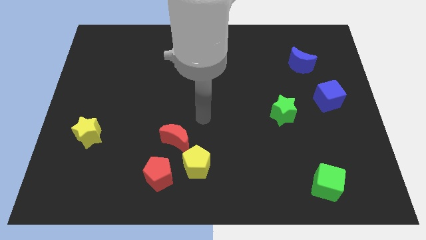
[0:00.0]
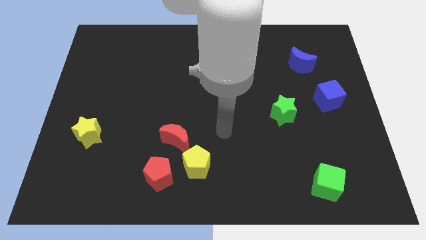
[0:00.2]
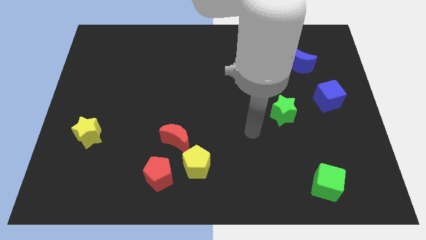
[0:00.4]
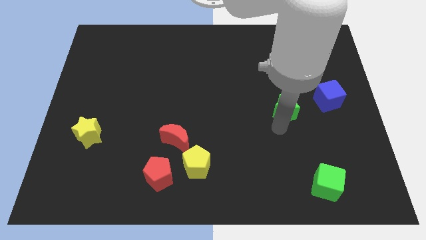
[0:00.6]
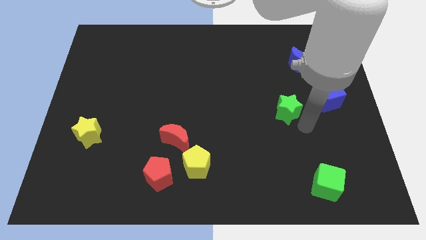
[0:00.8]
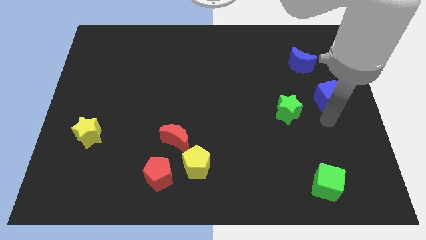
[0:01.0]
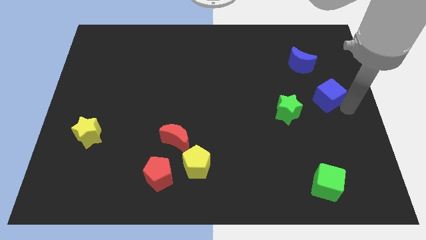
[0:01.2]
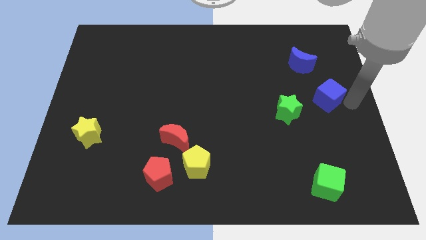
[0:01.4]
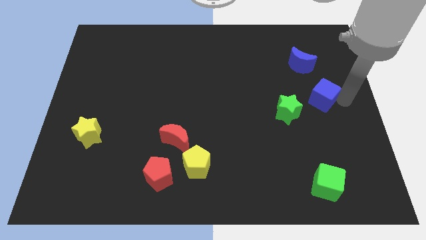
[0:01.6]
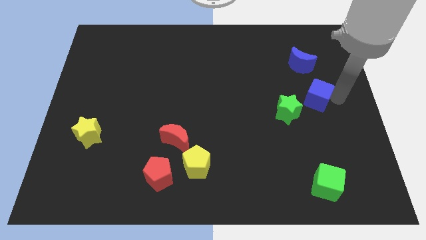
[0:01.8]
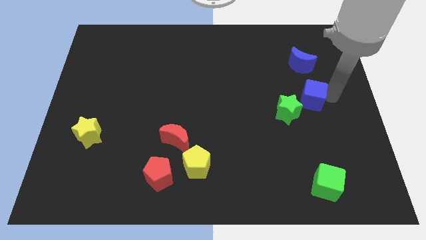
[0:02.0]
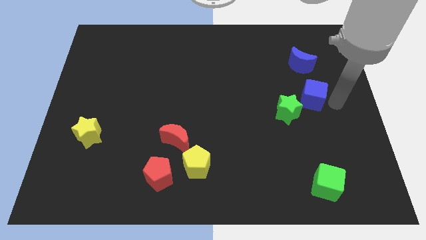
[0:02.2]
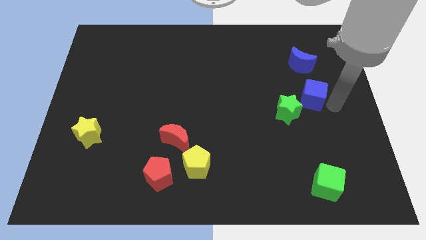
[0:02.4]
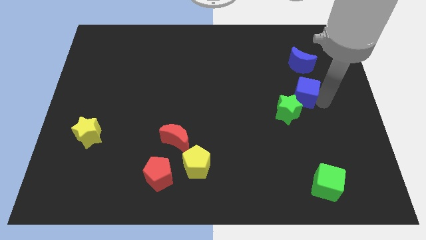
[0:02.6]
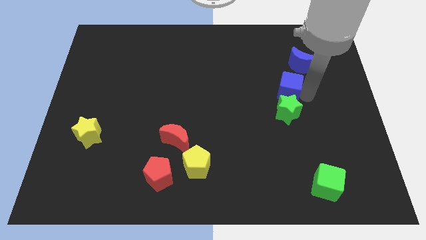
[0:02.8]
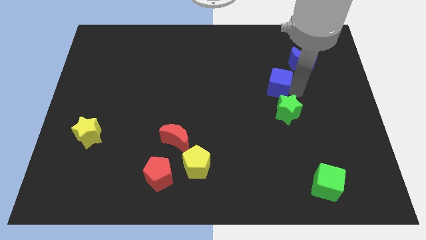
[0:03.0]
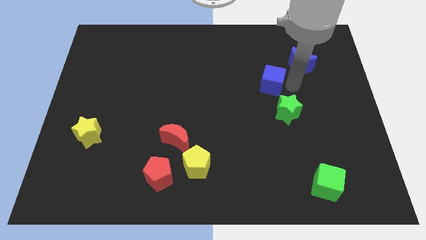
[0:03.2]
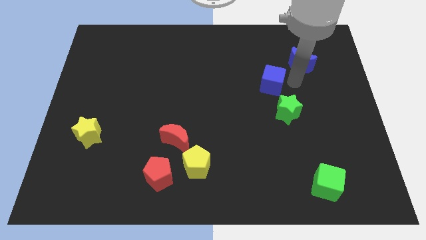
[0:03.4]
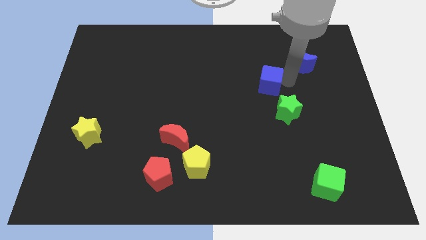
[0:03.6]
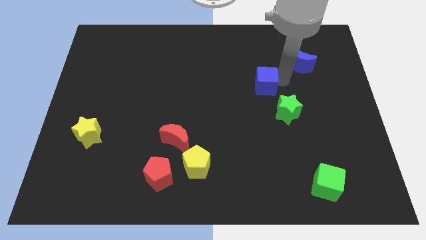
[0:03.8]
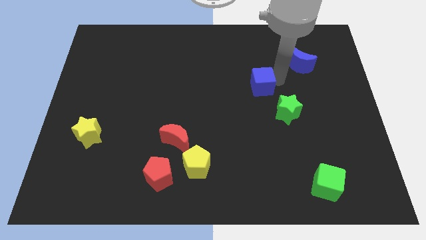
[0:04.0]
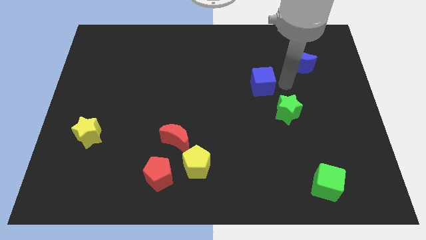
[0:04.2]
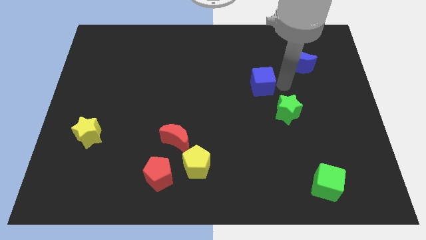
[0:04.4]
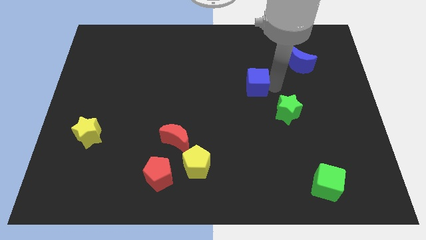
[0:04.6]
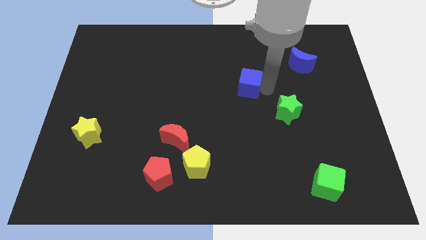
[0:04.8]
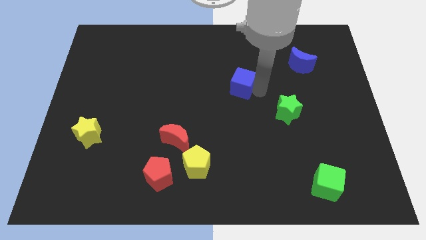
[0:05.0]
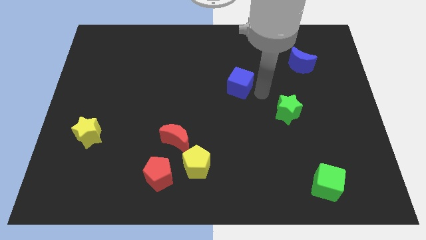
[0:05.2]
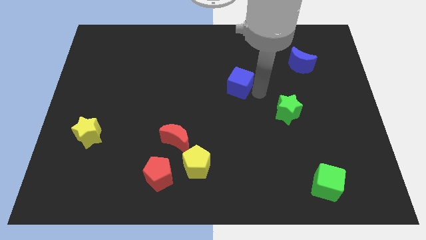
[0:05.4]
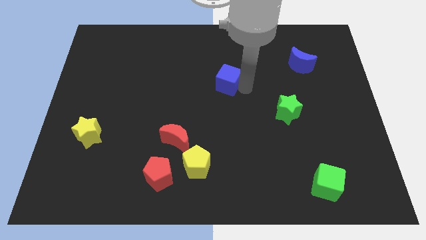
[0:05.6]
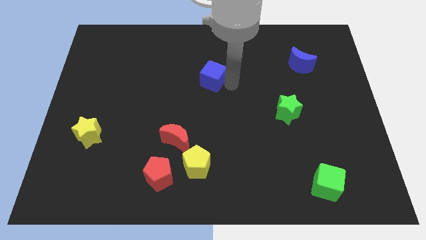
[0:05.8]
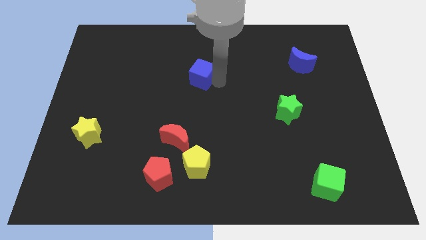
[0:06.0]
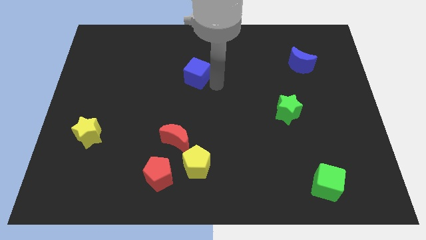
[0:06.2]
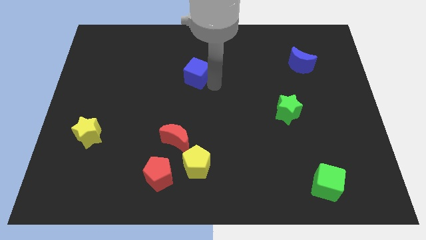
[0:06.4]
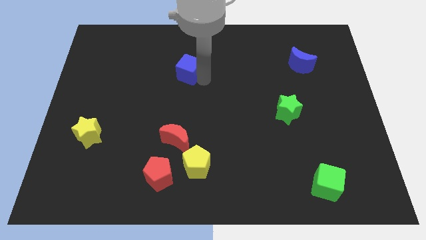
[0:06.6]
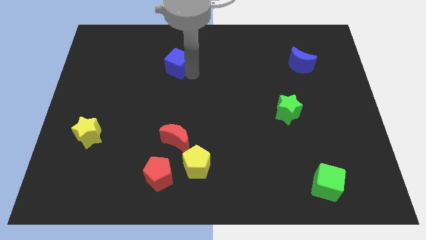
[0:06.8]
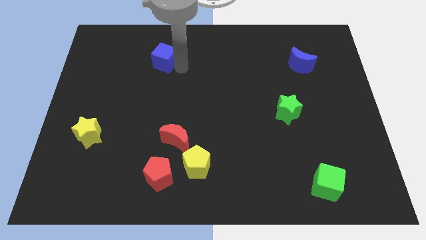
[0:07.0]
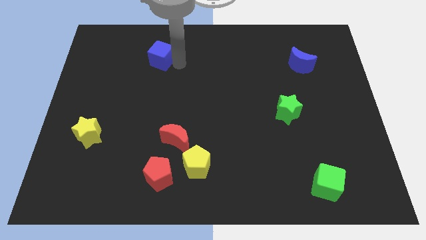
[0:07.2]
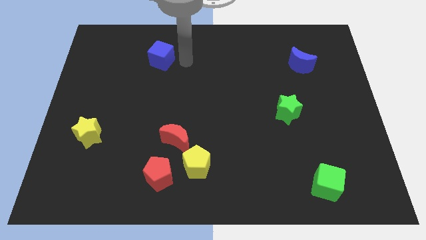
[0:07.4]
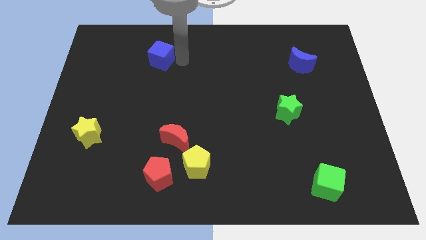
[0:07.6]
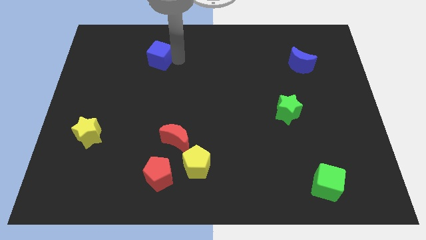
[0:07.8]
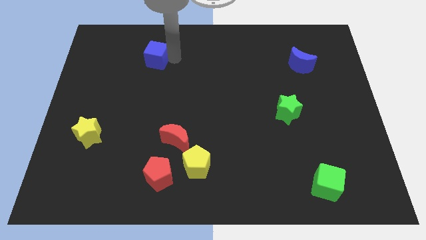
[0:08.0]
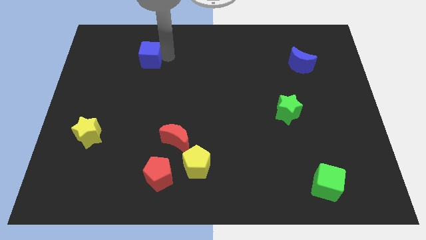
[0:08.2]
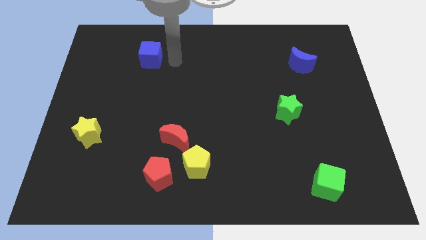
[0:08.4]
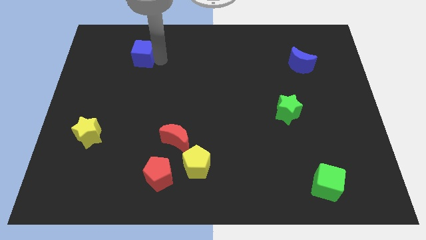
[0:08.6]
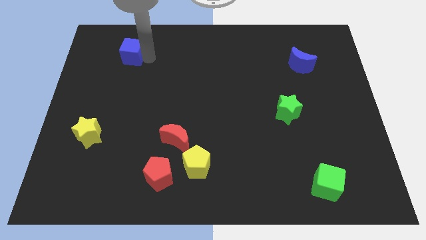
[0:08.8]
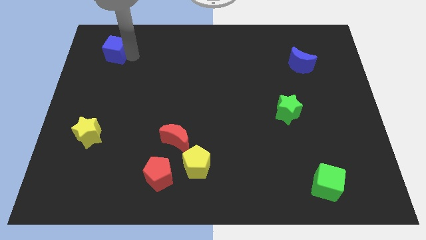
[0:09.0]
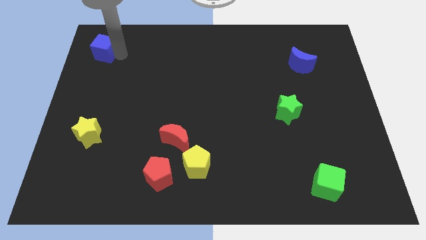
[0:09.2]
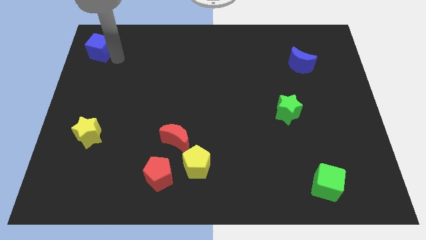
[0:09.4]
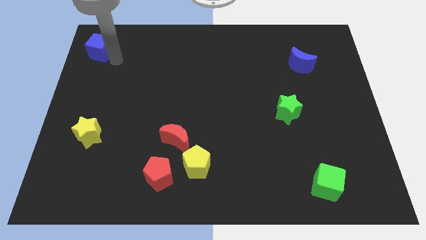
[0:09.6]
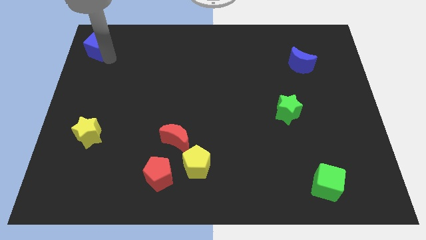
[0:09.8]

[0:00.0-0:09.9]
push the blue cube to the upper left corner

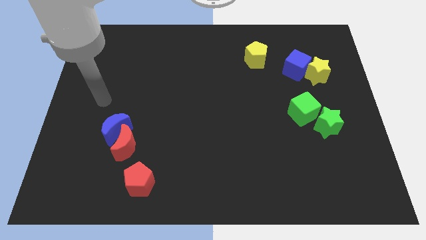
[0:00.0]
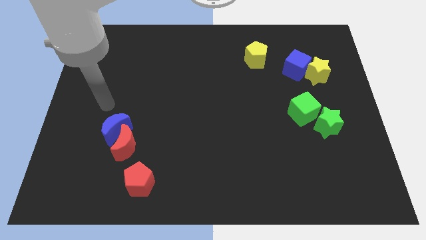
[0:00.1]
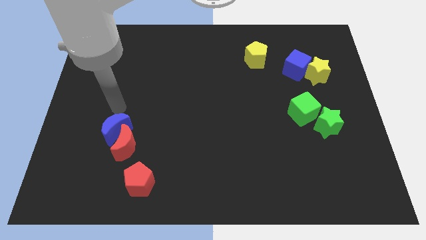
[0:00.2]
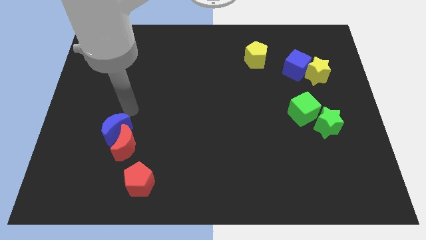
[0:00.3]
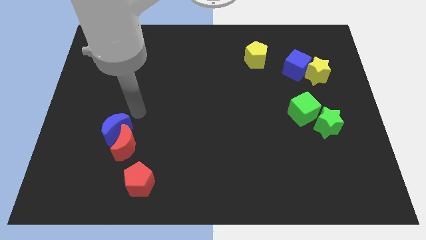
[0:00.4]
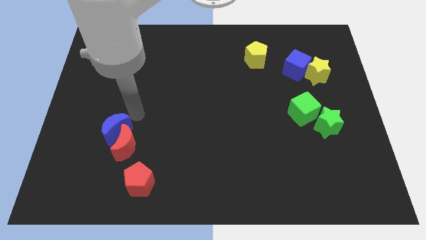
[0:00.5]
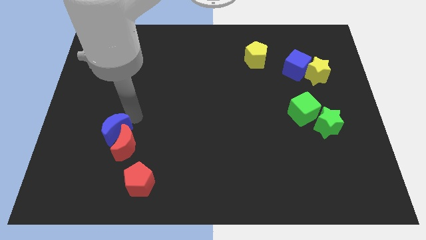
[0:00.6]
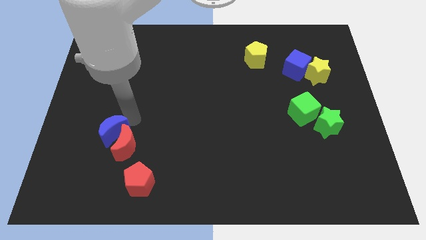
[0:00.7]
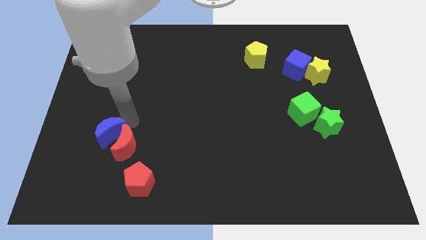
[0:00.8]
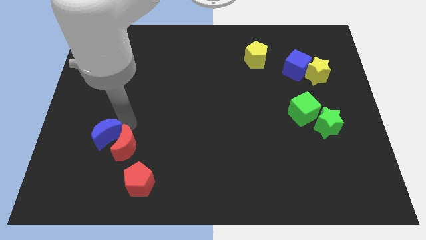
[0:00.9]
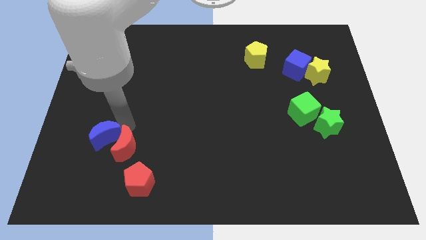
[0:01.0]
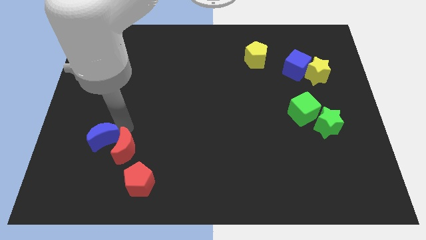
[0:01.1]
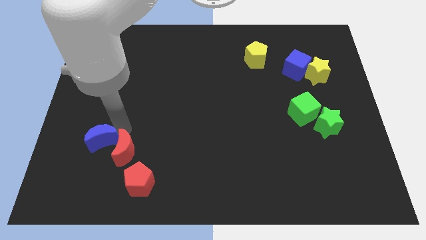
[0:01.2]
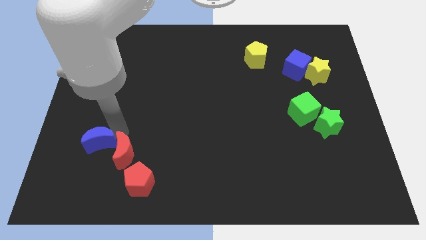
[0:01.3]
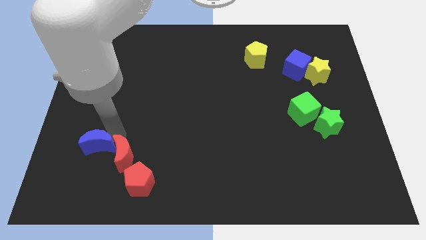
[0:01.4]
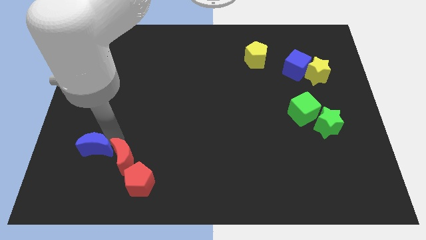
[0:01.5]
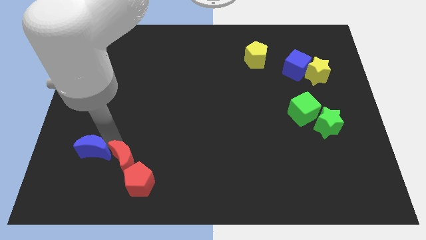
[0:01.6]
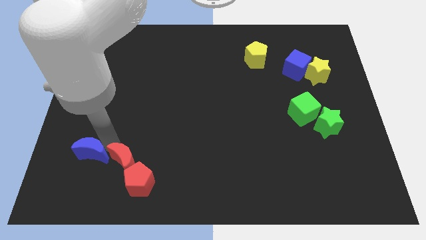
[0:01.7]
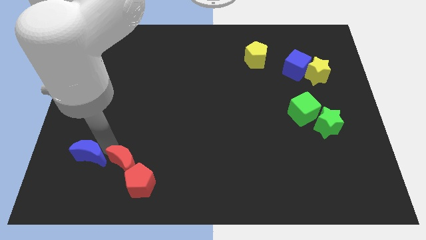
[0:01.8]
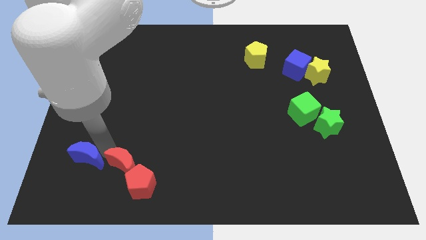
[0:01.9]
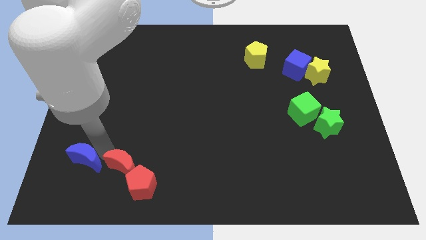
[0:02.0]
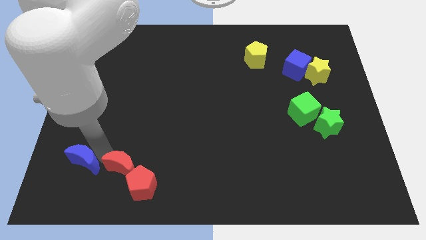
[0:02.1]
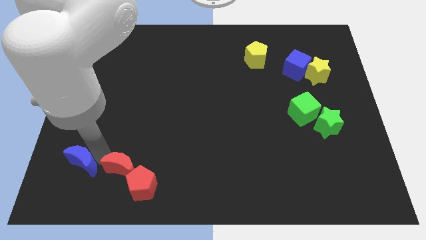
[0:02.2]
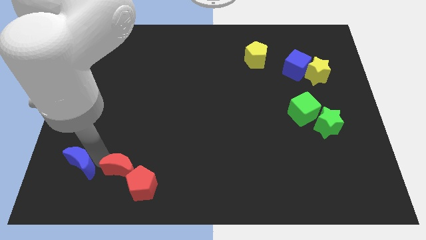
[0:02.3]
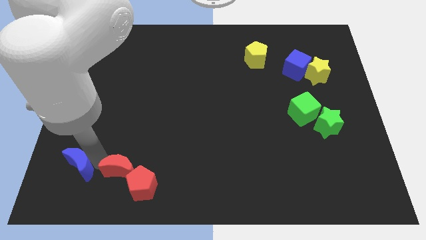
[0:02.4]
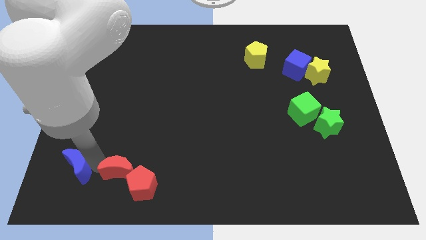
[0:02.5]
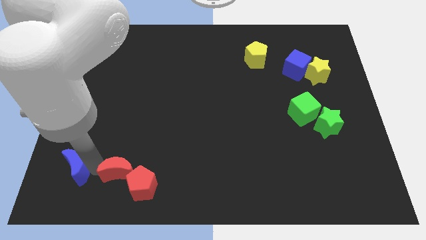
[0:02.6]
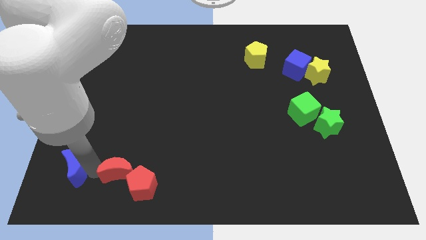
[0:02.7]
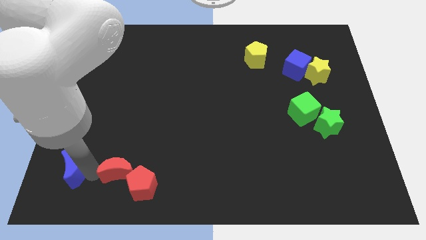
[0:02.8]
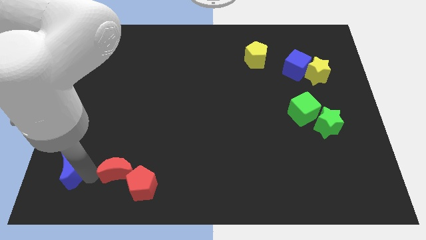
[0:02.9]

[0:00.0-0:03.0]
move the blue moon to the bottom left of the board
